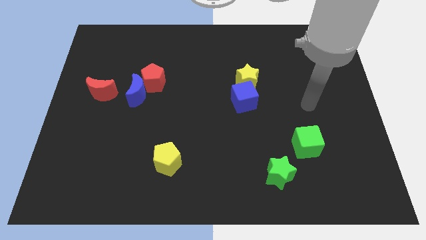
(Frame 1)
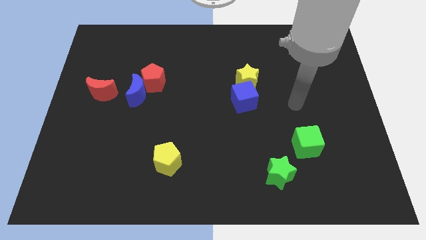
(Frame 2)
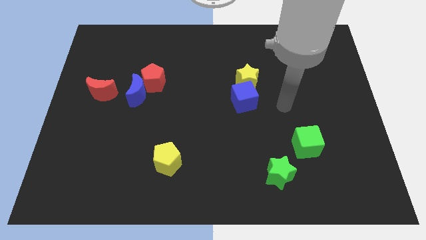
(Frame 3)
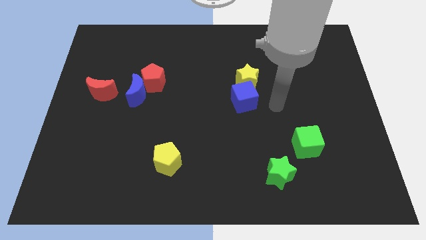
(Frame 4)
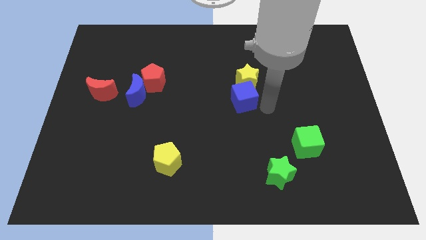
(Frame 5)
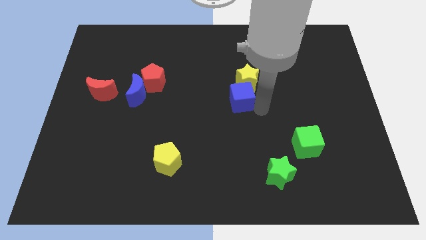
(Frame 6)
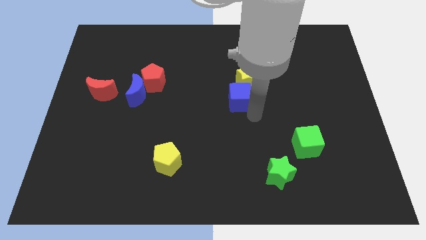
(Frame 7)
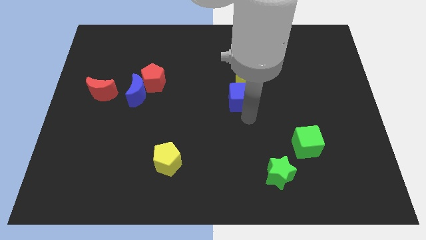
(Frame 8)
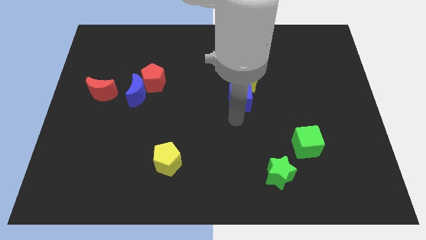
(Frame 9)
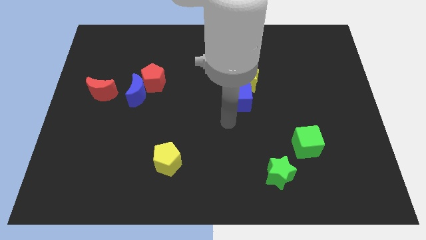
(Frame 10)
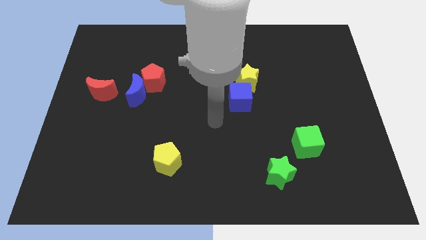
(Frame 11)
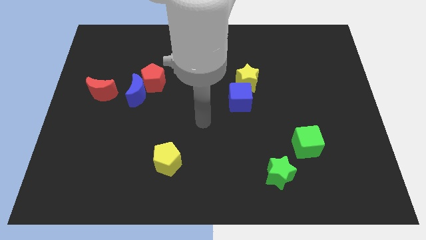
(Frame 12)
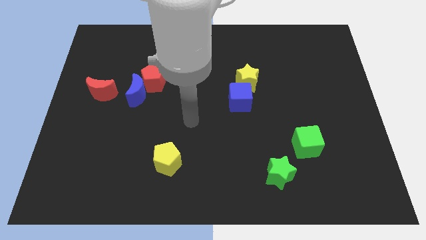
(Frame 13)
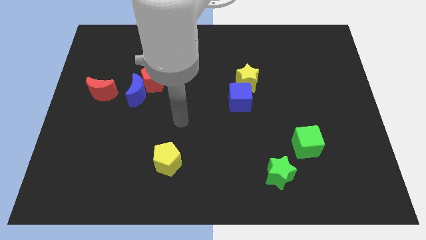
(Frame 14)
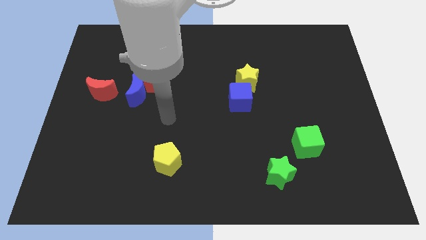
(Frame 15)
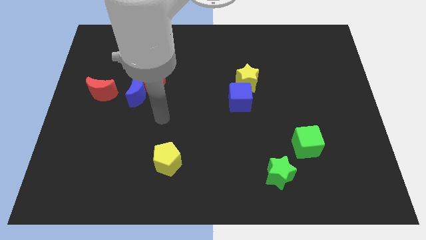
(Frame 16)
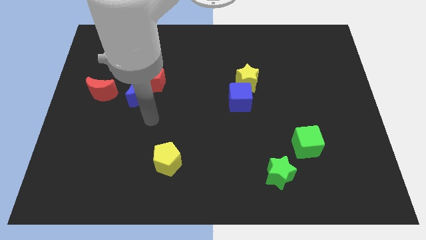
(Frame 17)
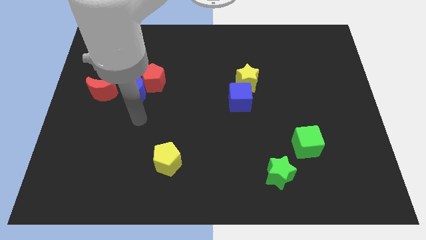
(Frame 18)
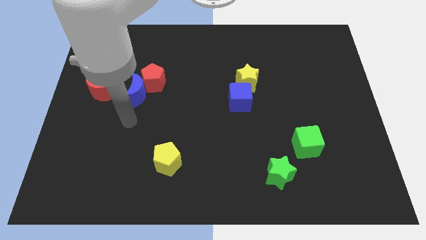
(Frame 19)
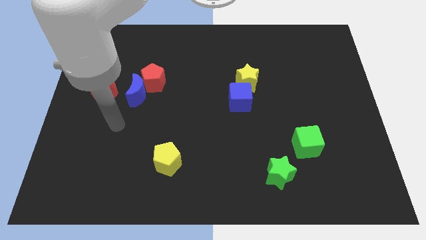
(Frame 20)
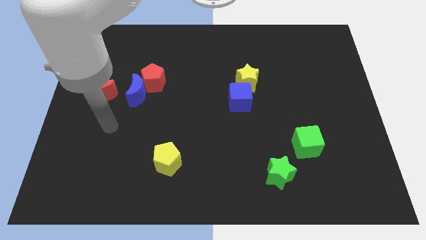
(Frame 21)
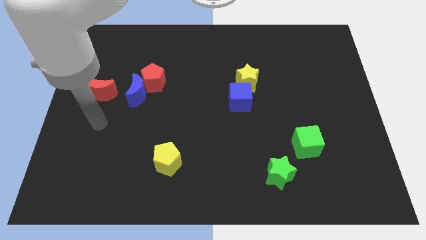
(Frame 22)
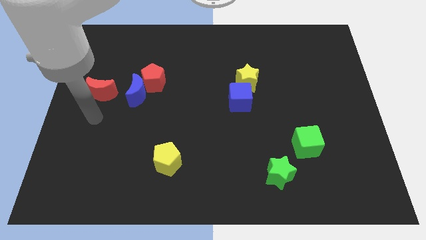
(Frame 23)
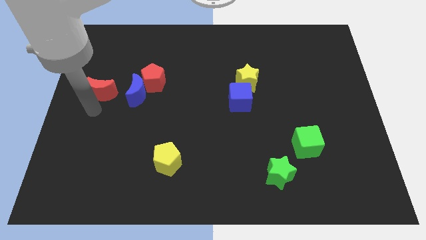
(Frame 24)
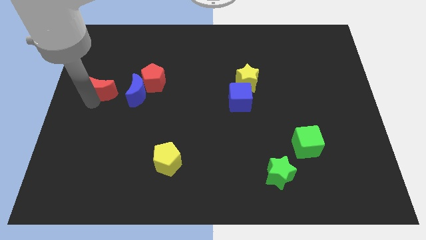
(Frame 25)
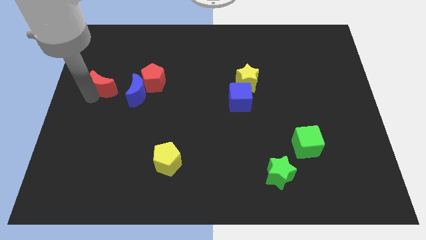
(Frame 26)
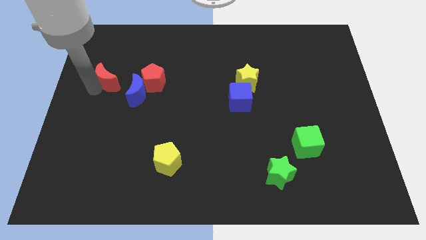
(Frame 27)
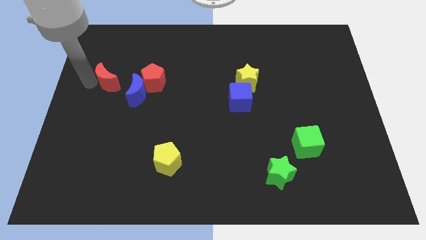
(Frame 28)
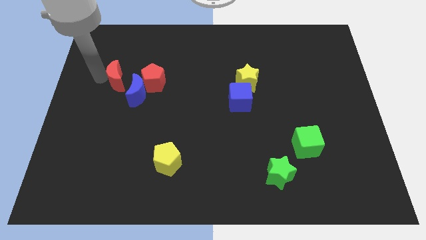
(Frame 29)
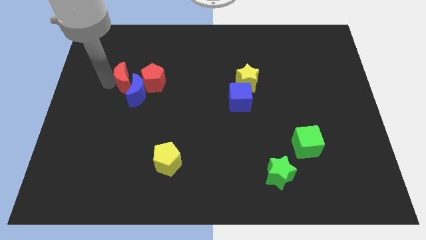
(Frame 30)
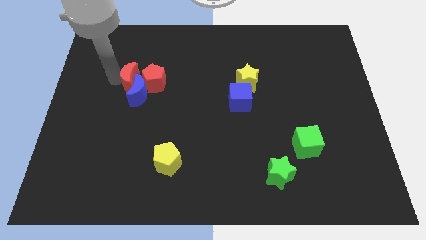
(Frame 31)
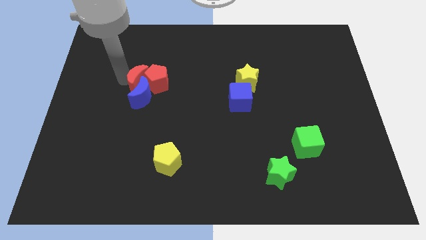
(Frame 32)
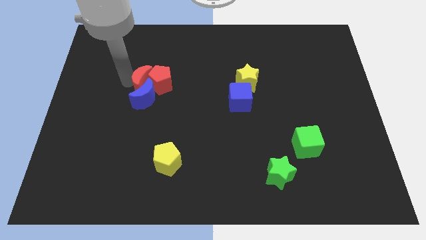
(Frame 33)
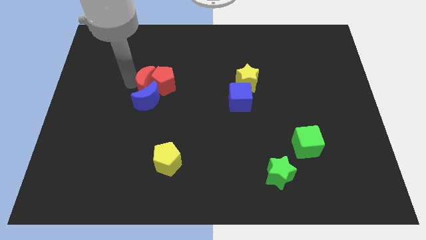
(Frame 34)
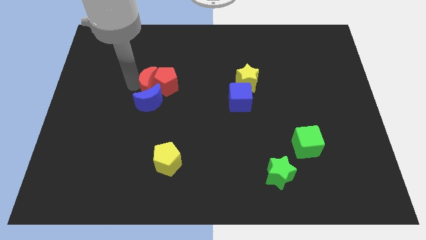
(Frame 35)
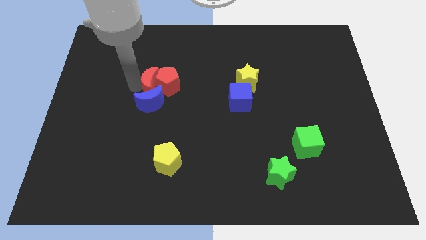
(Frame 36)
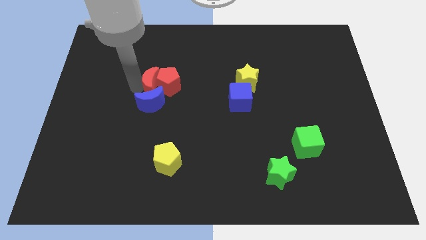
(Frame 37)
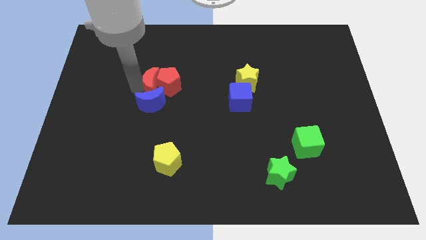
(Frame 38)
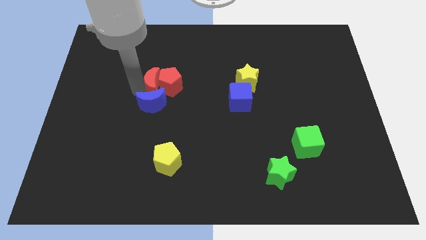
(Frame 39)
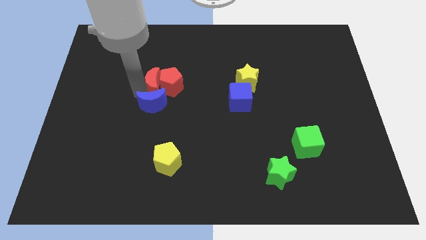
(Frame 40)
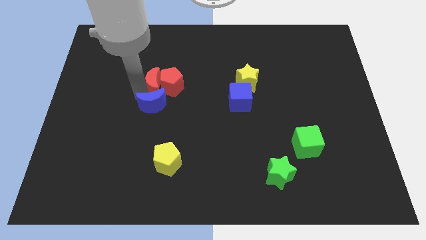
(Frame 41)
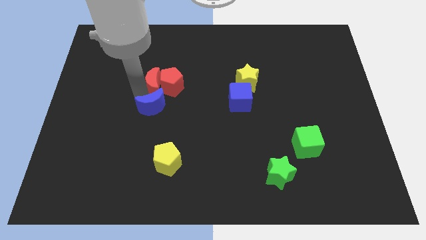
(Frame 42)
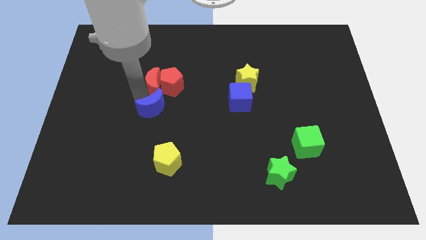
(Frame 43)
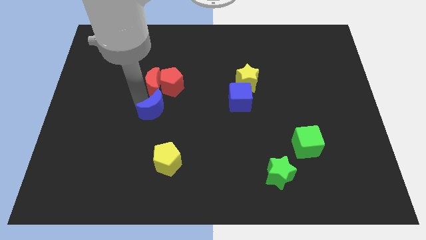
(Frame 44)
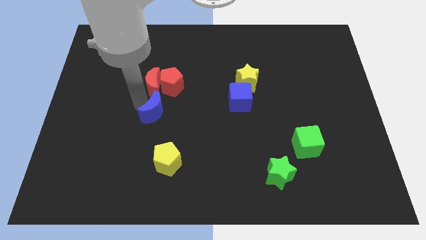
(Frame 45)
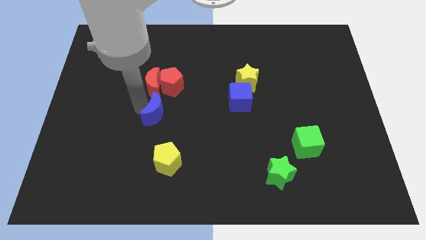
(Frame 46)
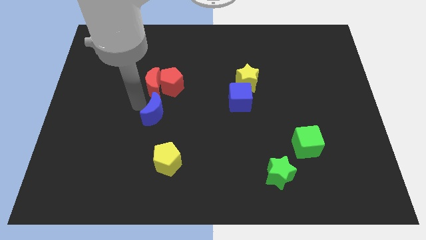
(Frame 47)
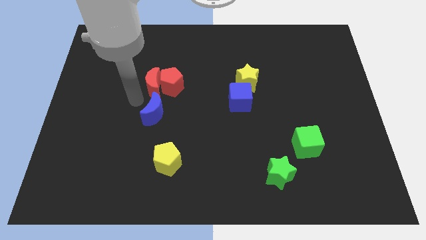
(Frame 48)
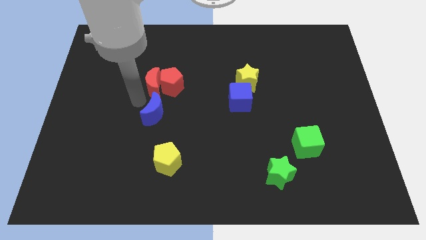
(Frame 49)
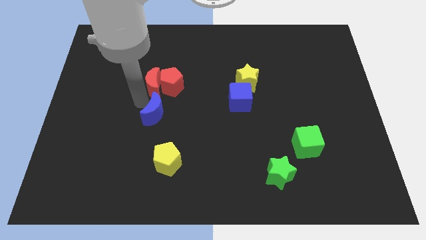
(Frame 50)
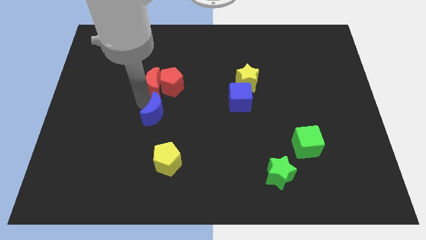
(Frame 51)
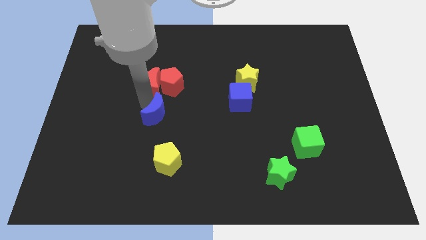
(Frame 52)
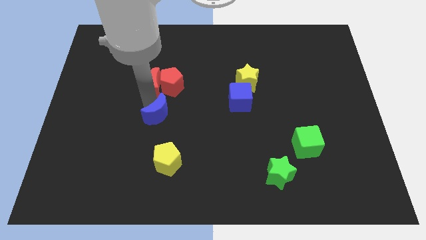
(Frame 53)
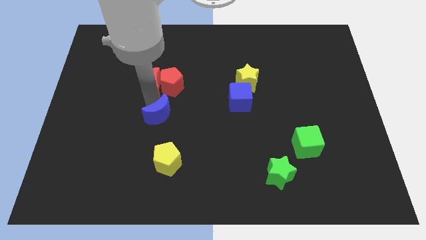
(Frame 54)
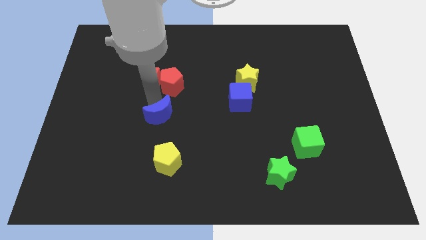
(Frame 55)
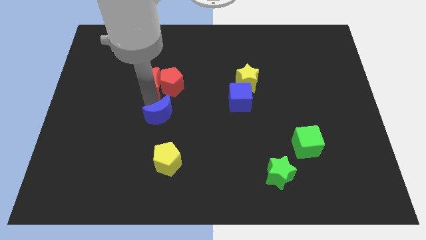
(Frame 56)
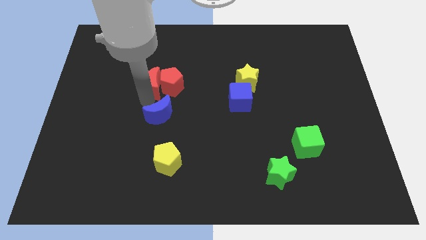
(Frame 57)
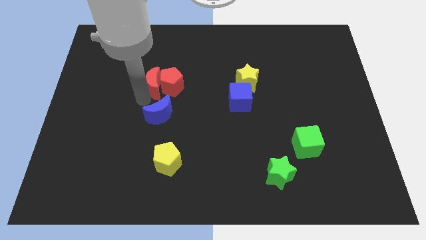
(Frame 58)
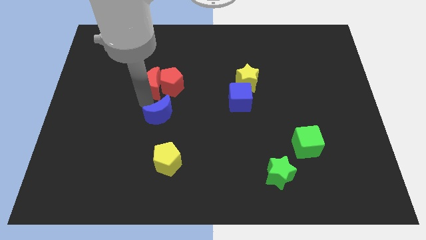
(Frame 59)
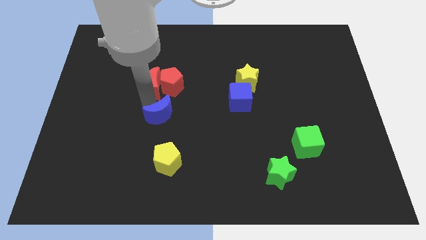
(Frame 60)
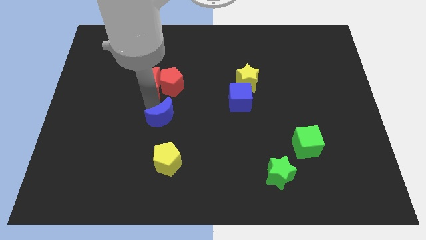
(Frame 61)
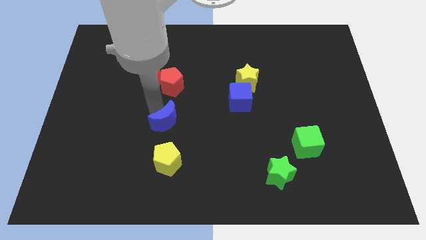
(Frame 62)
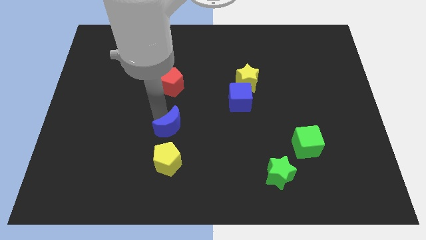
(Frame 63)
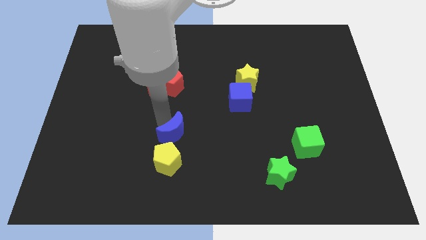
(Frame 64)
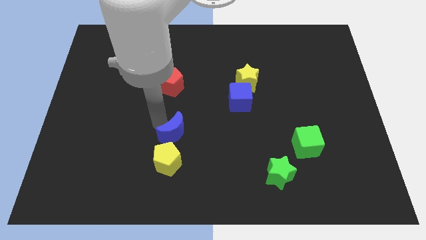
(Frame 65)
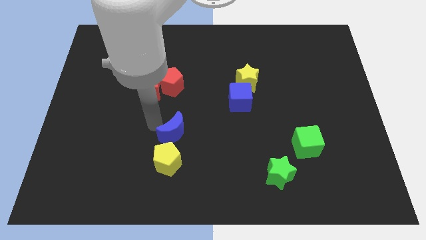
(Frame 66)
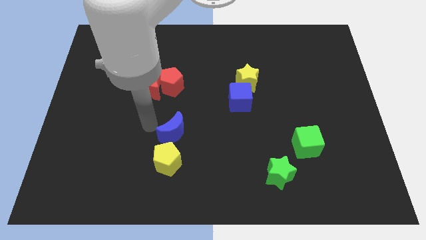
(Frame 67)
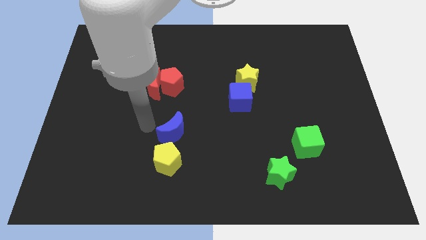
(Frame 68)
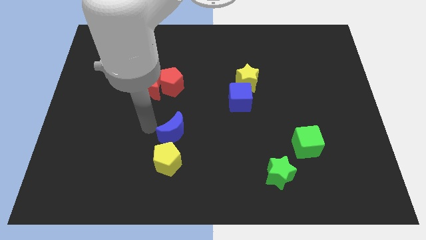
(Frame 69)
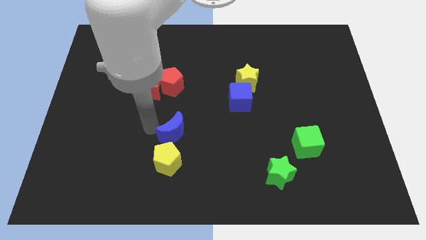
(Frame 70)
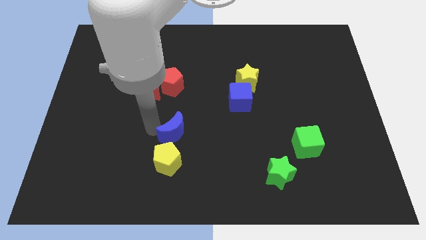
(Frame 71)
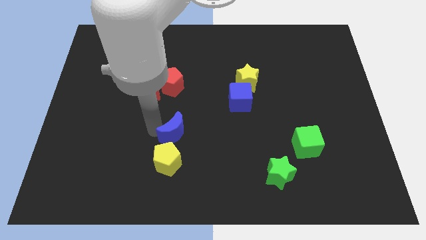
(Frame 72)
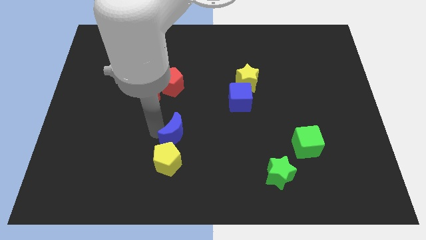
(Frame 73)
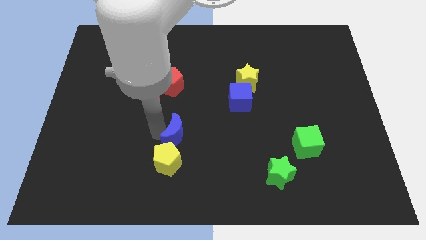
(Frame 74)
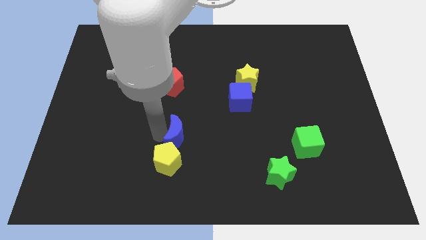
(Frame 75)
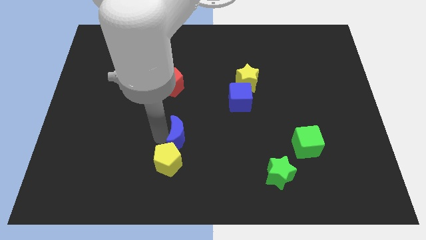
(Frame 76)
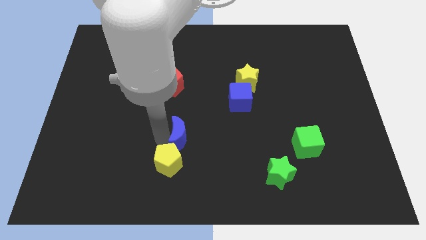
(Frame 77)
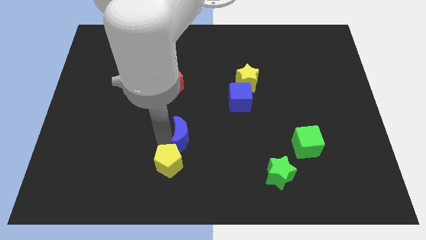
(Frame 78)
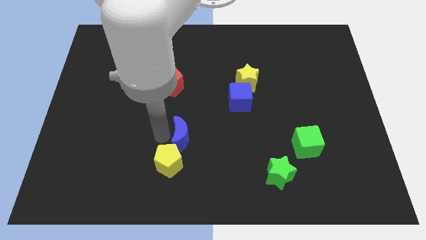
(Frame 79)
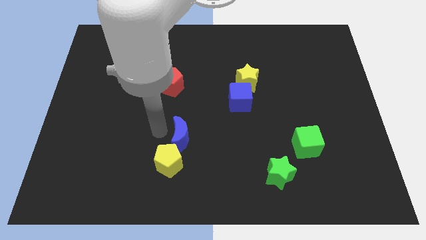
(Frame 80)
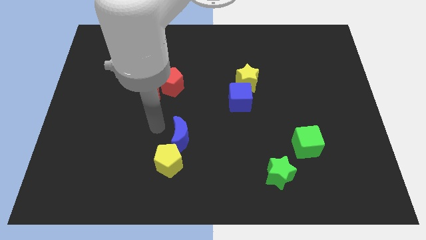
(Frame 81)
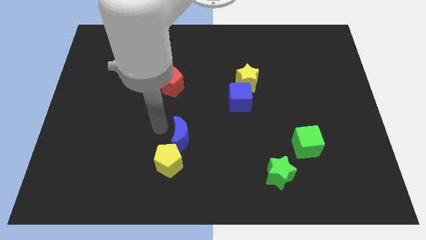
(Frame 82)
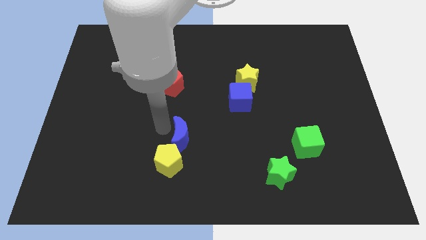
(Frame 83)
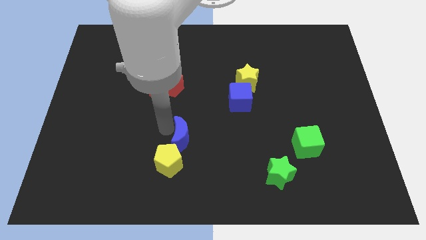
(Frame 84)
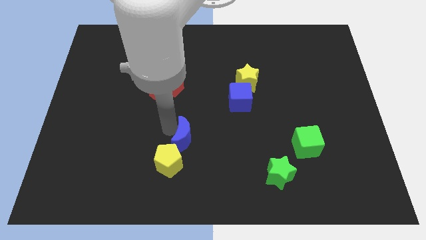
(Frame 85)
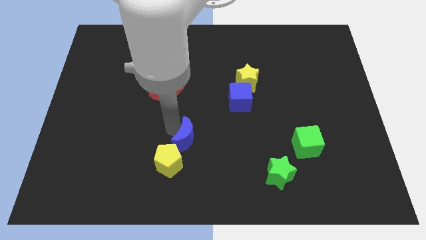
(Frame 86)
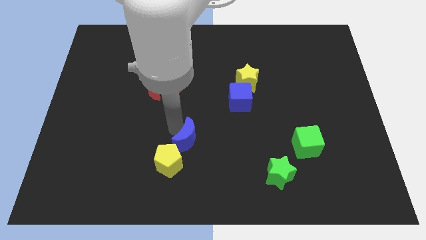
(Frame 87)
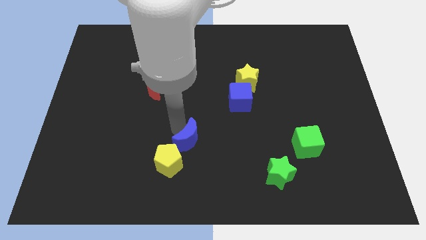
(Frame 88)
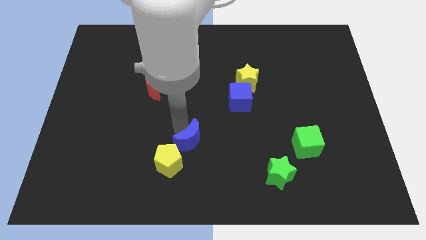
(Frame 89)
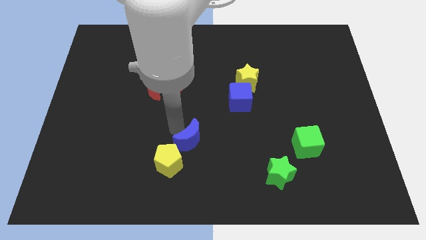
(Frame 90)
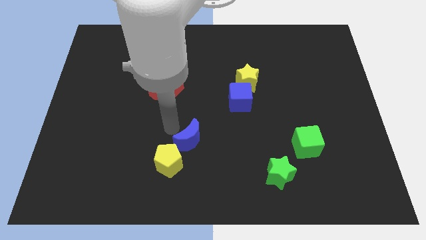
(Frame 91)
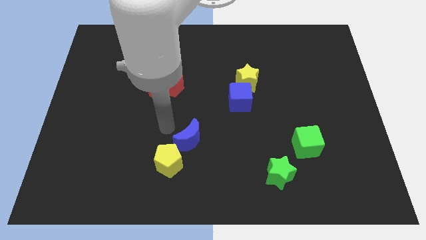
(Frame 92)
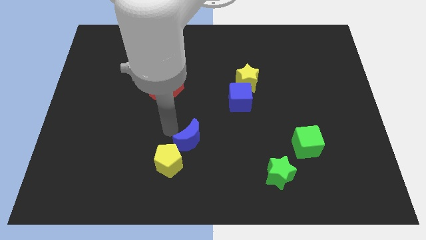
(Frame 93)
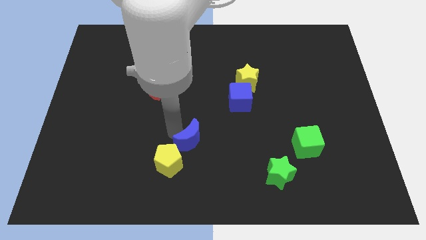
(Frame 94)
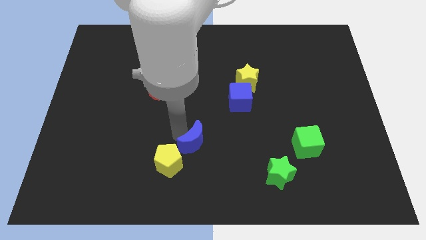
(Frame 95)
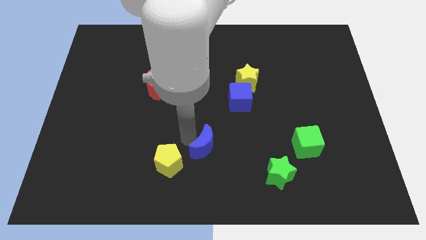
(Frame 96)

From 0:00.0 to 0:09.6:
move the blue moon downwards and then to the right
